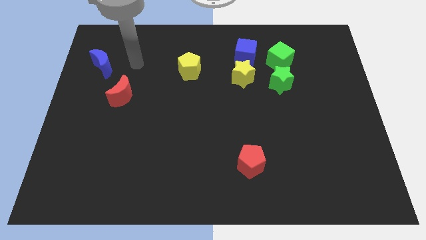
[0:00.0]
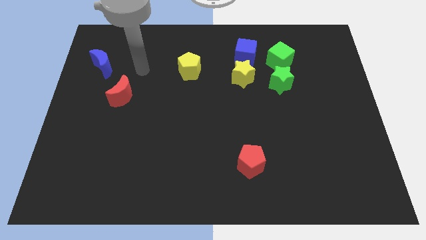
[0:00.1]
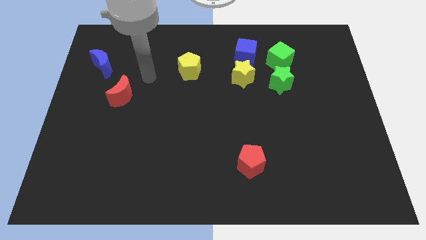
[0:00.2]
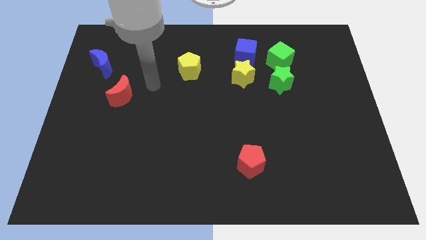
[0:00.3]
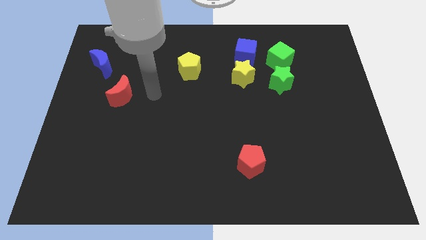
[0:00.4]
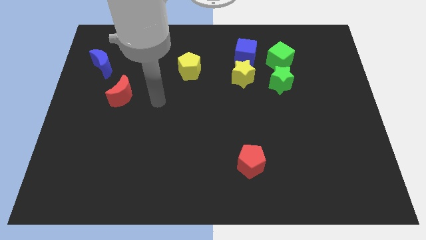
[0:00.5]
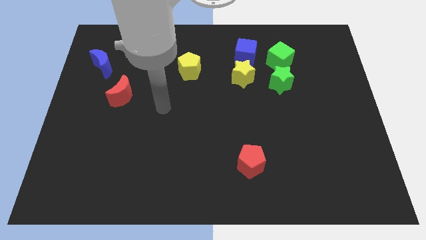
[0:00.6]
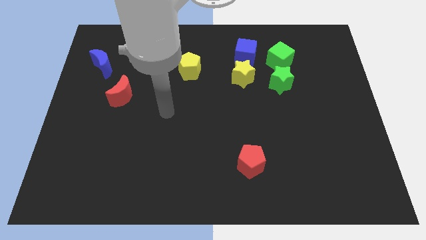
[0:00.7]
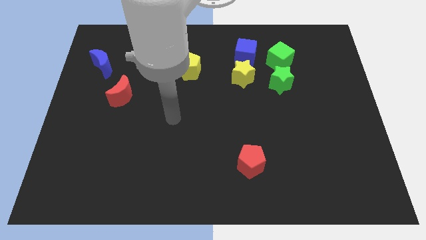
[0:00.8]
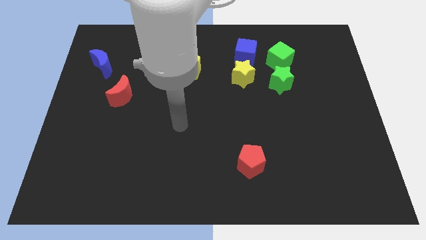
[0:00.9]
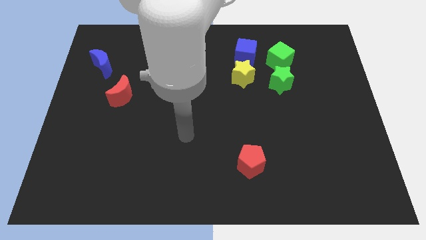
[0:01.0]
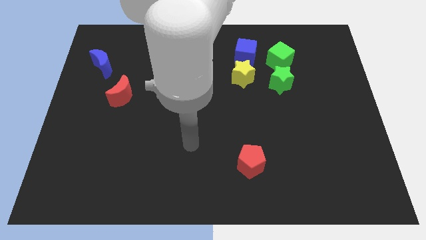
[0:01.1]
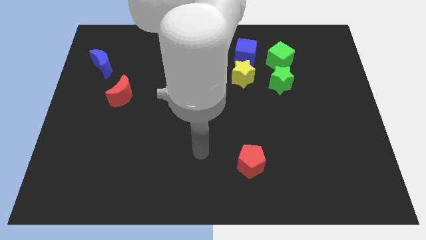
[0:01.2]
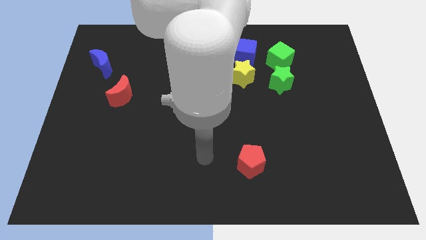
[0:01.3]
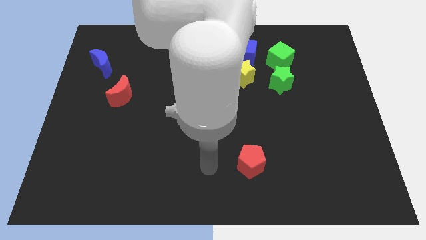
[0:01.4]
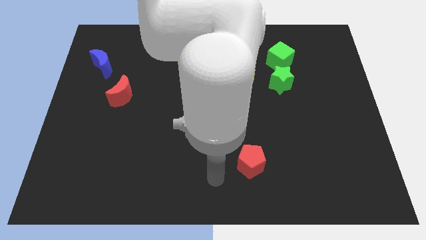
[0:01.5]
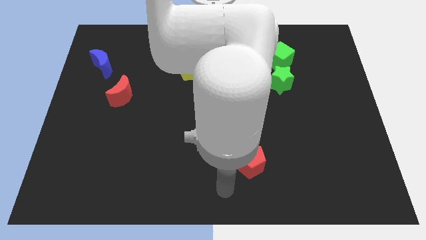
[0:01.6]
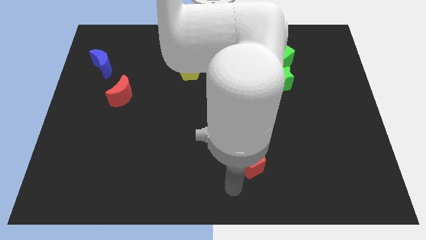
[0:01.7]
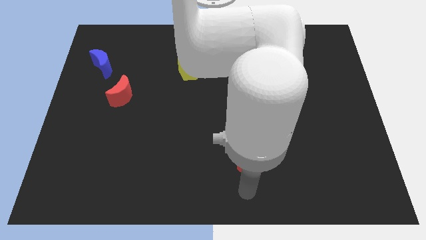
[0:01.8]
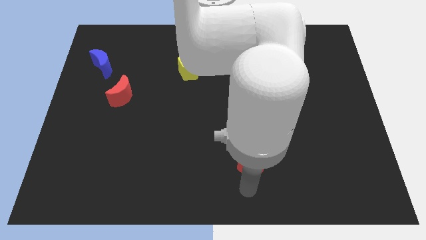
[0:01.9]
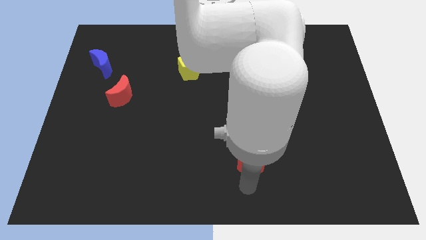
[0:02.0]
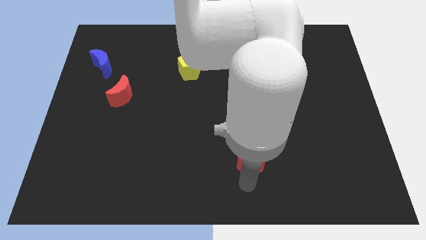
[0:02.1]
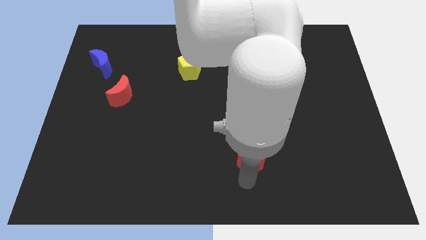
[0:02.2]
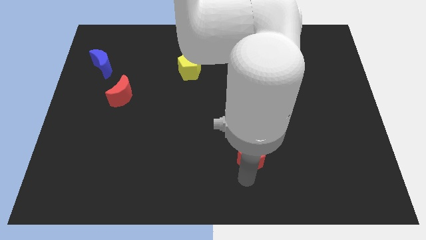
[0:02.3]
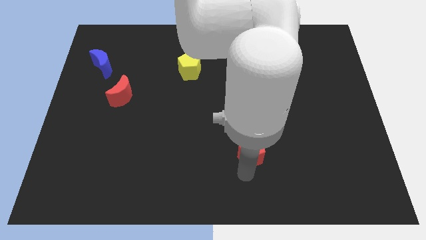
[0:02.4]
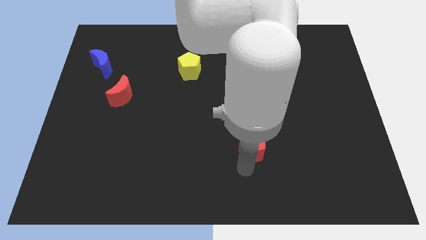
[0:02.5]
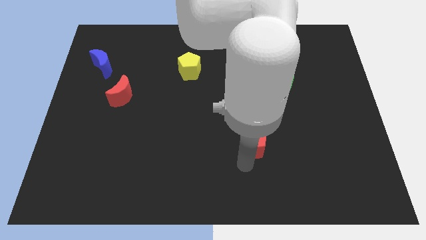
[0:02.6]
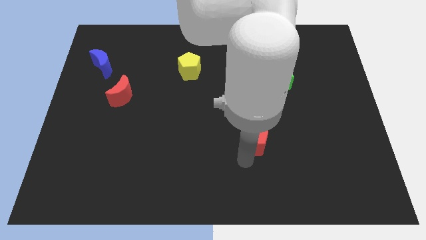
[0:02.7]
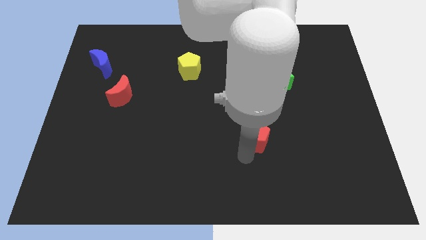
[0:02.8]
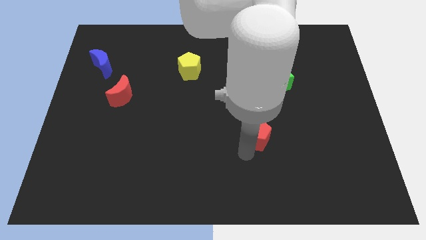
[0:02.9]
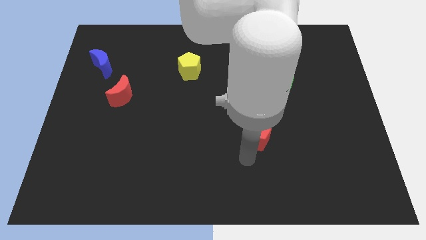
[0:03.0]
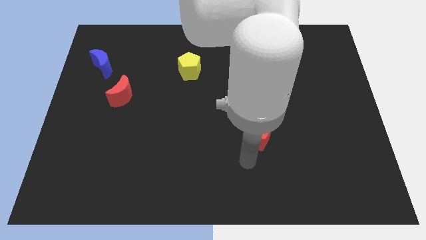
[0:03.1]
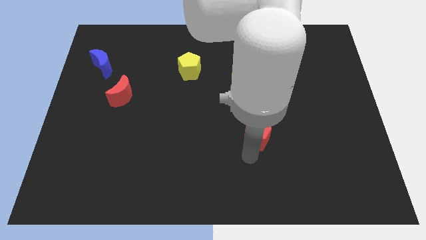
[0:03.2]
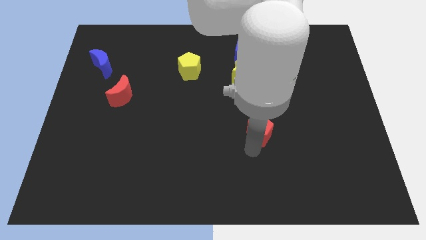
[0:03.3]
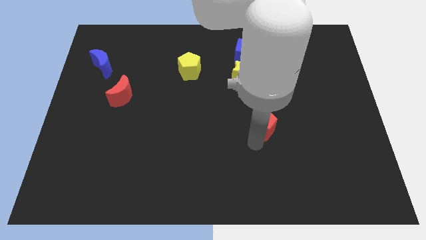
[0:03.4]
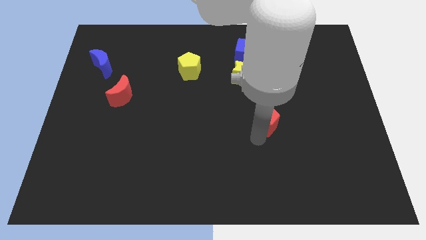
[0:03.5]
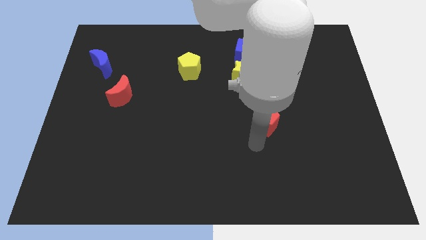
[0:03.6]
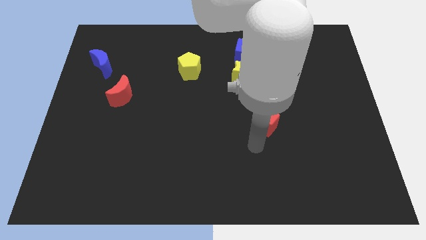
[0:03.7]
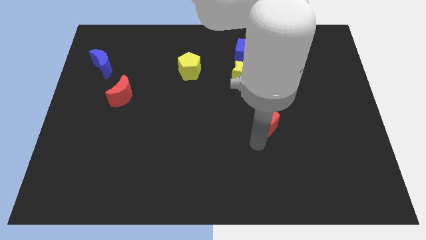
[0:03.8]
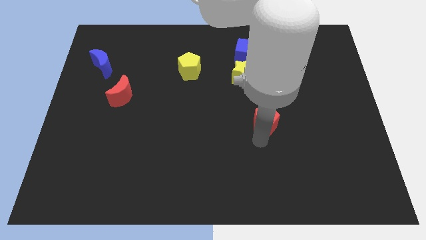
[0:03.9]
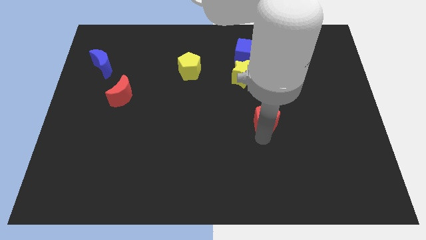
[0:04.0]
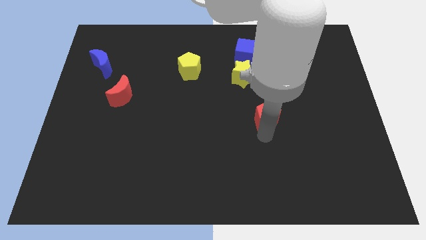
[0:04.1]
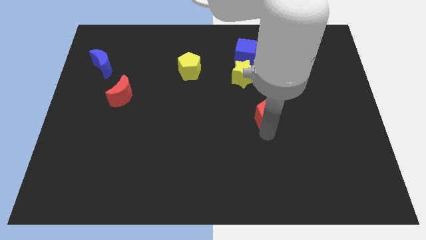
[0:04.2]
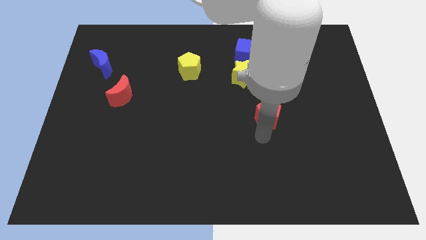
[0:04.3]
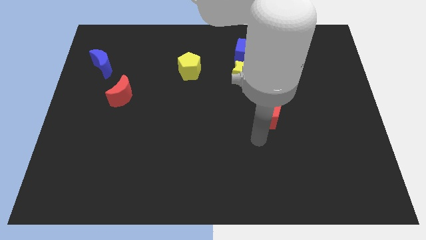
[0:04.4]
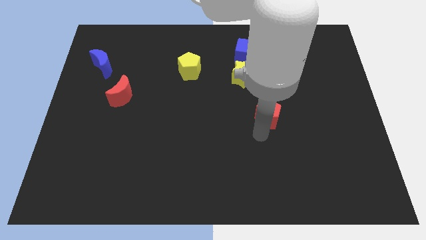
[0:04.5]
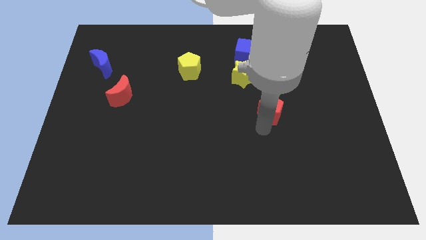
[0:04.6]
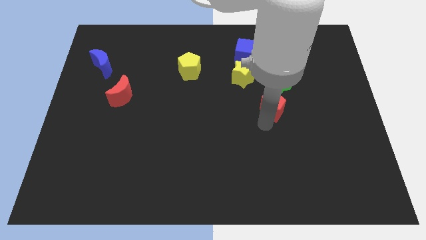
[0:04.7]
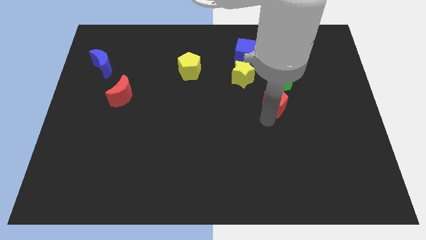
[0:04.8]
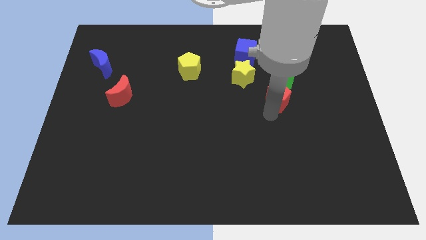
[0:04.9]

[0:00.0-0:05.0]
move the red pentagon close to the green star

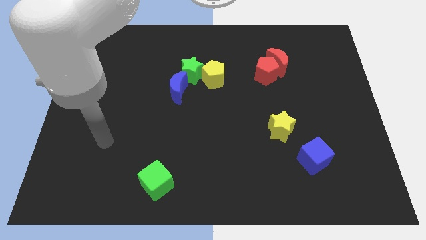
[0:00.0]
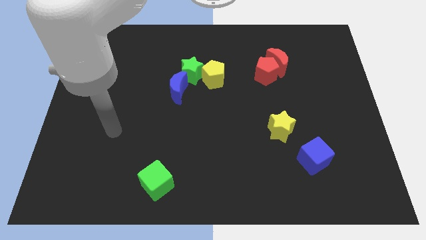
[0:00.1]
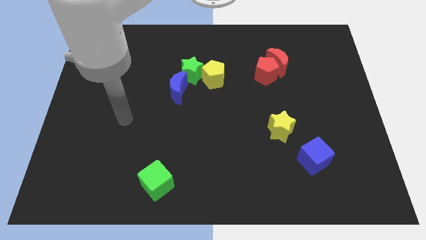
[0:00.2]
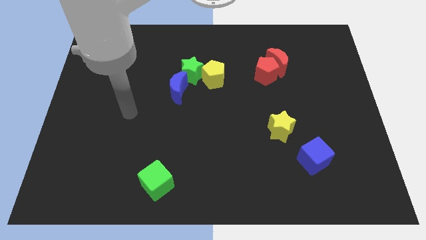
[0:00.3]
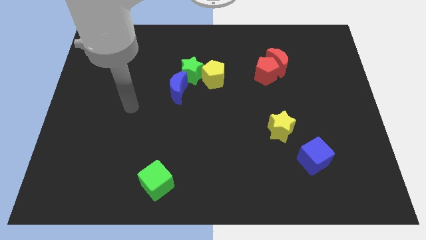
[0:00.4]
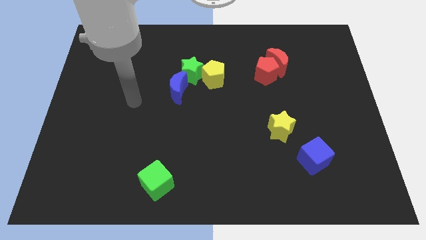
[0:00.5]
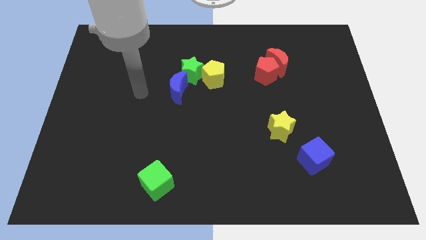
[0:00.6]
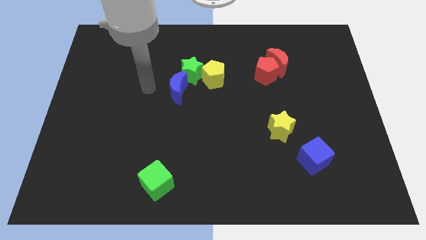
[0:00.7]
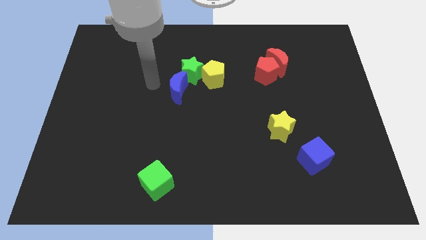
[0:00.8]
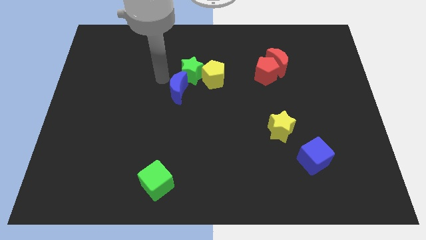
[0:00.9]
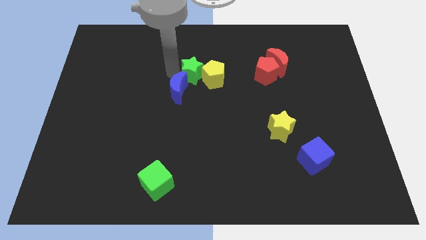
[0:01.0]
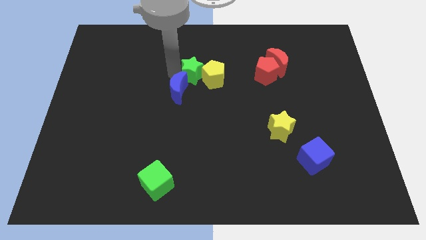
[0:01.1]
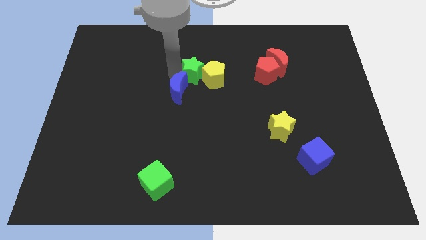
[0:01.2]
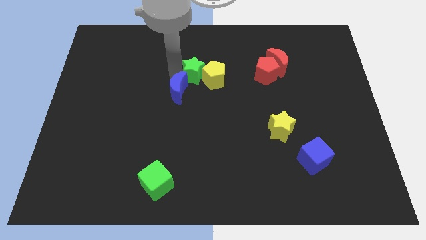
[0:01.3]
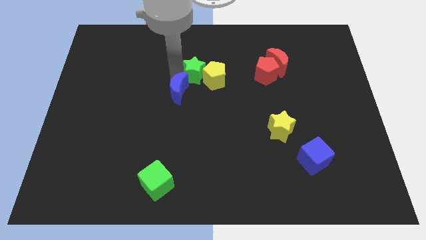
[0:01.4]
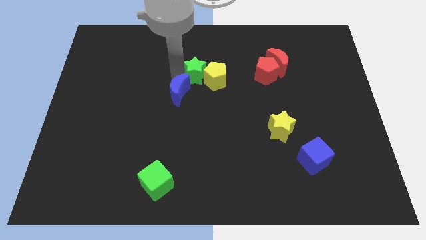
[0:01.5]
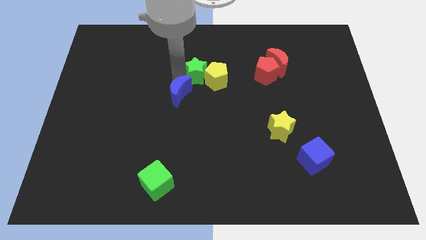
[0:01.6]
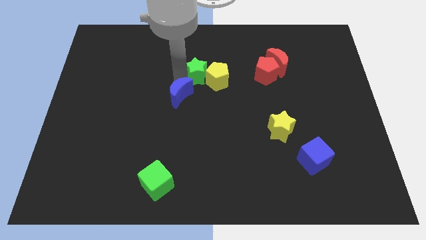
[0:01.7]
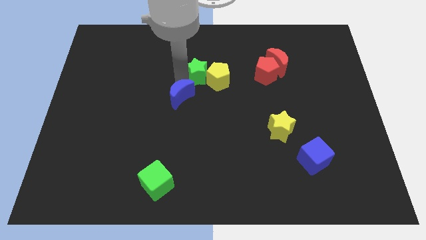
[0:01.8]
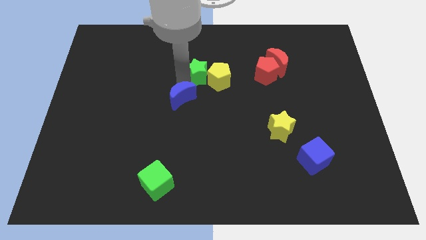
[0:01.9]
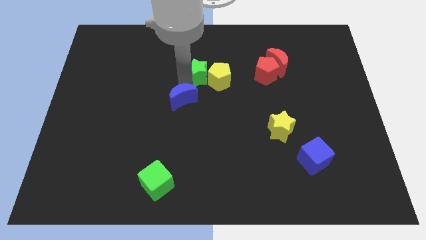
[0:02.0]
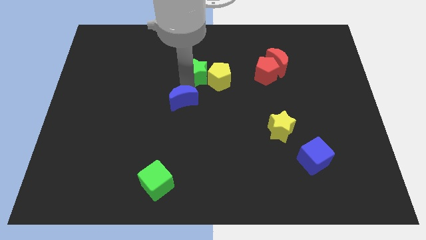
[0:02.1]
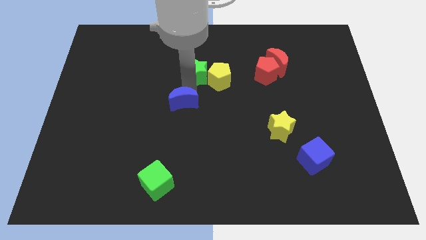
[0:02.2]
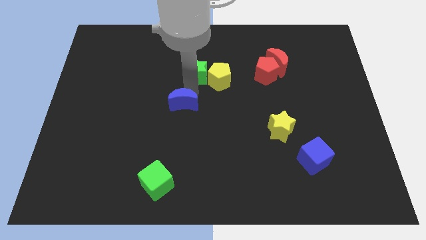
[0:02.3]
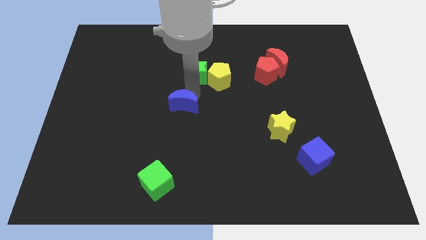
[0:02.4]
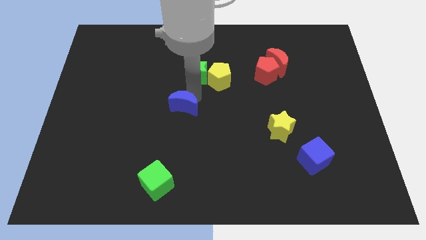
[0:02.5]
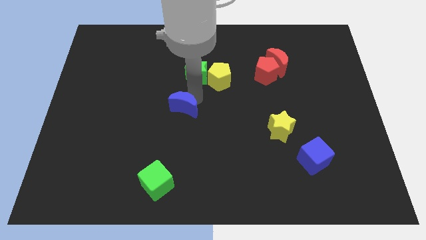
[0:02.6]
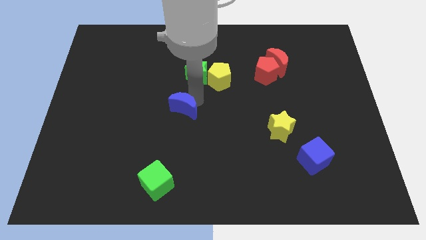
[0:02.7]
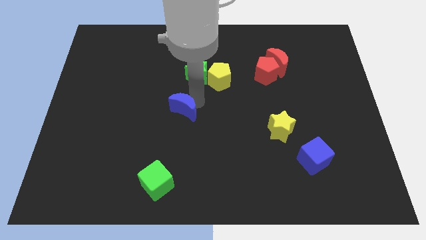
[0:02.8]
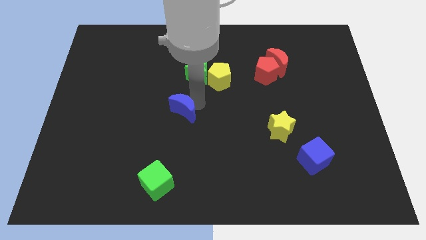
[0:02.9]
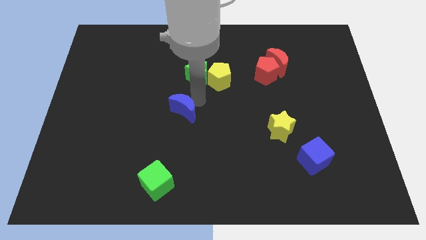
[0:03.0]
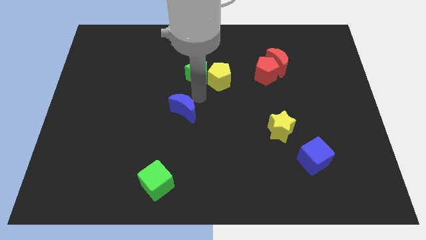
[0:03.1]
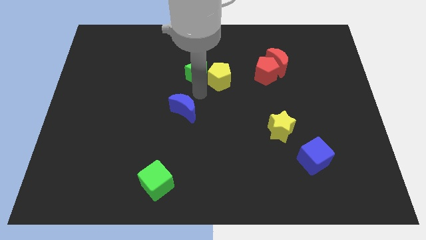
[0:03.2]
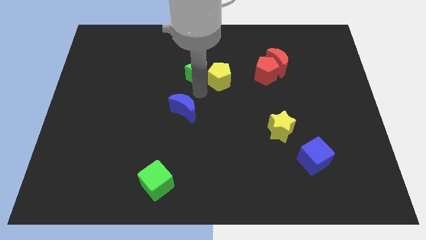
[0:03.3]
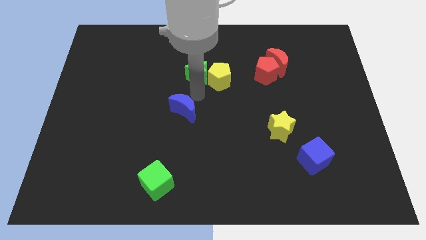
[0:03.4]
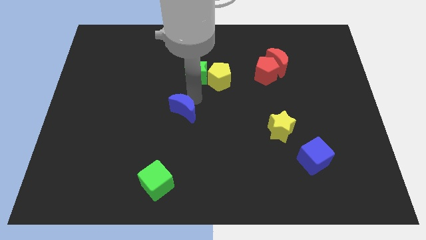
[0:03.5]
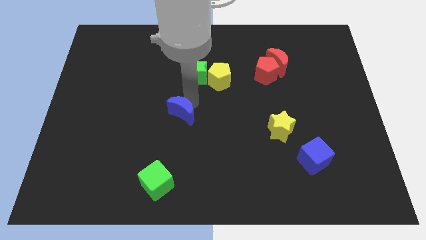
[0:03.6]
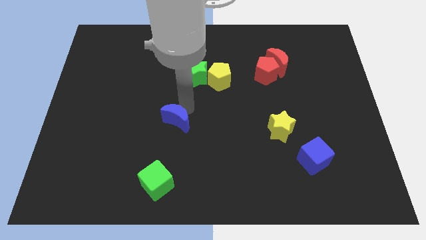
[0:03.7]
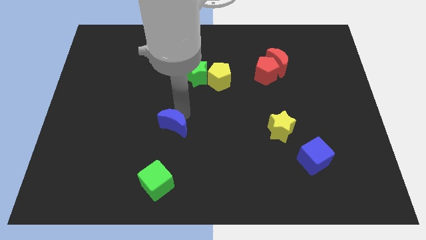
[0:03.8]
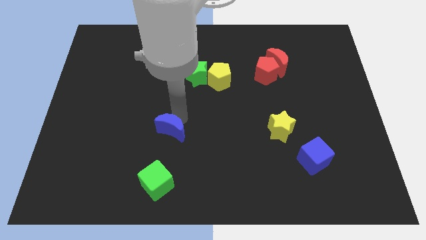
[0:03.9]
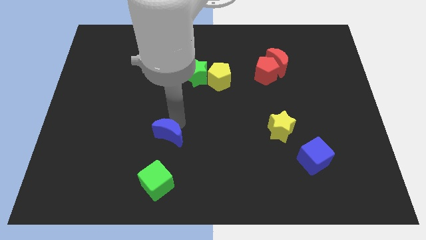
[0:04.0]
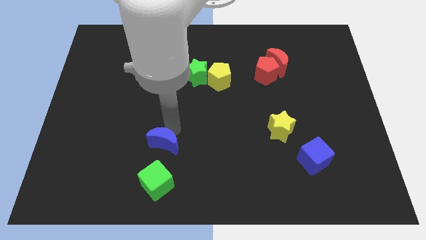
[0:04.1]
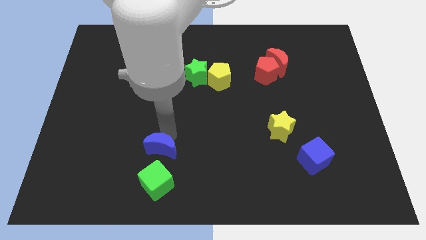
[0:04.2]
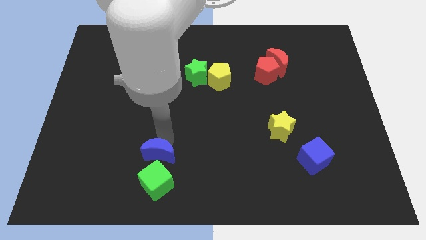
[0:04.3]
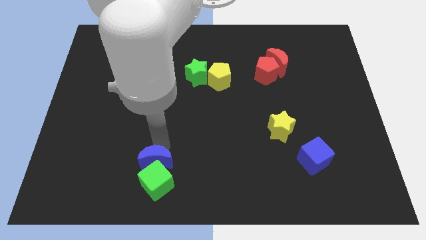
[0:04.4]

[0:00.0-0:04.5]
move the blue moon to the green cube
